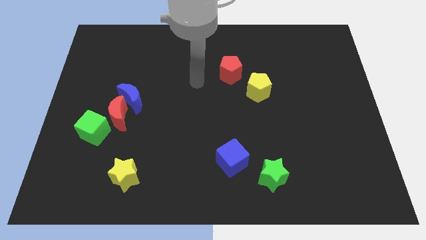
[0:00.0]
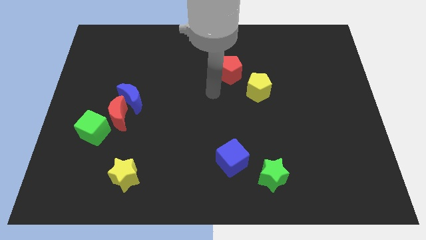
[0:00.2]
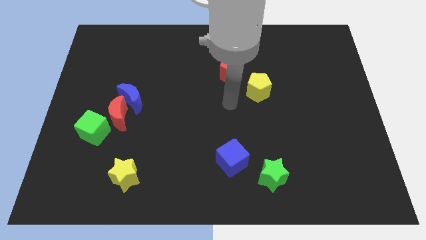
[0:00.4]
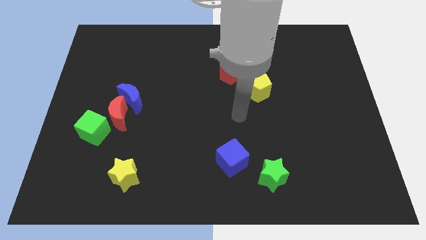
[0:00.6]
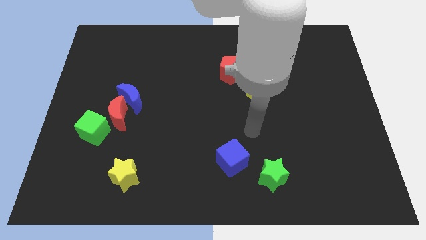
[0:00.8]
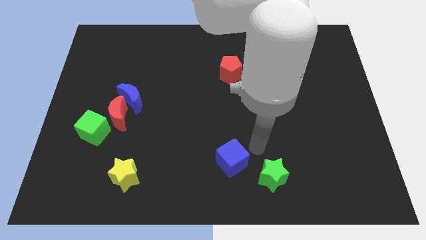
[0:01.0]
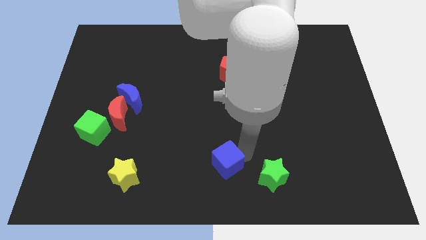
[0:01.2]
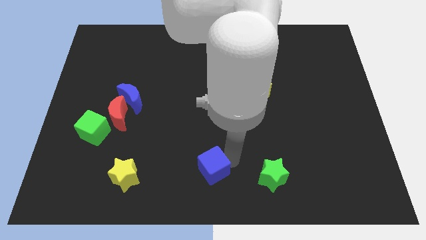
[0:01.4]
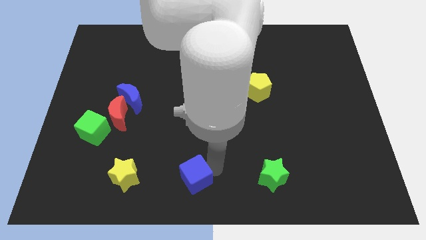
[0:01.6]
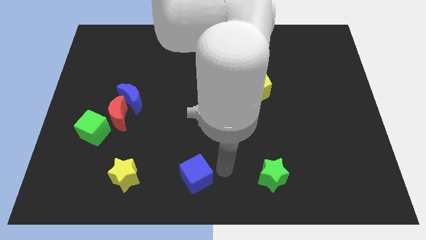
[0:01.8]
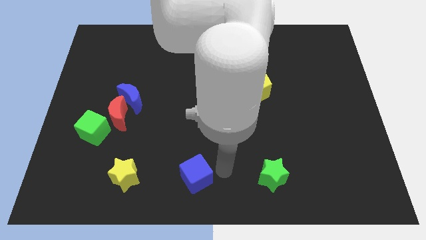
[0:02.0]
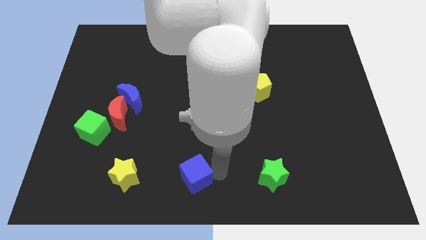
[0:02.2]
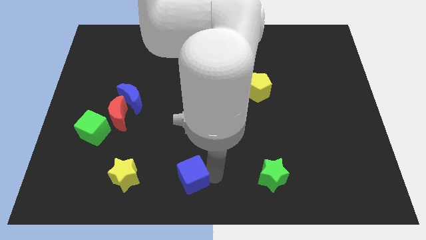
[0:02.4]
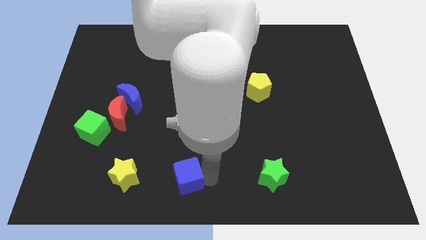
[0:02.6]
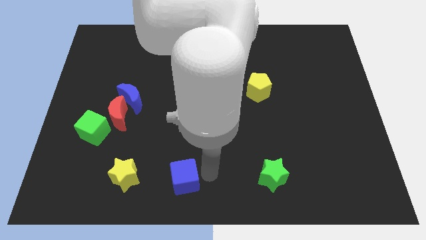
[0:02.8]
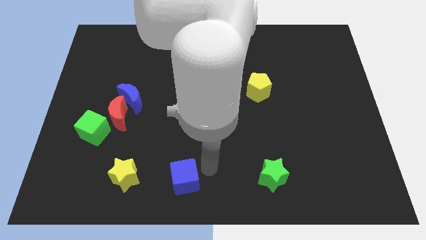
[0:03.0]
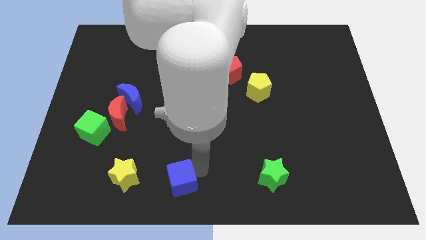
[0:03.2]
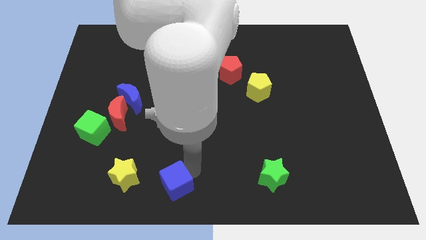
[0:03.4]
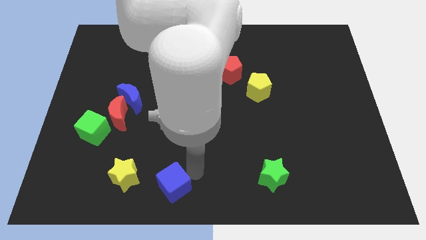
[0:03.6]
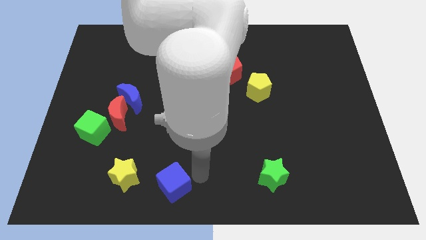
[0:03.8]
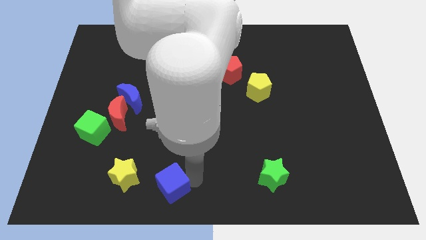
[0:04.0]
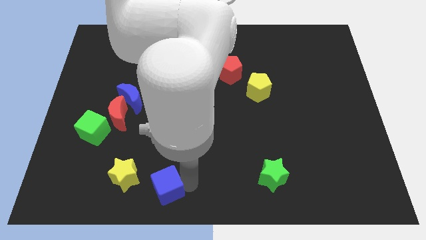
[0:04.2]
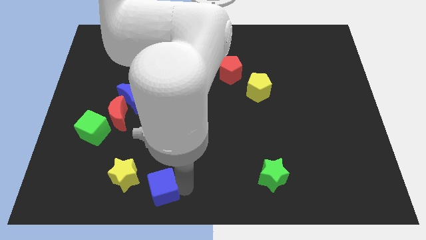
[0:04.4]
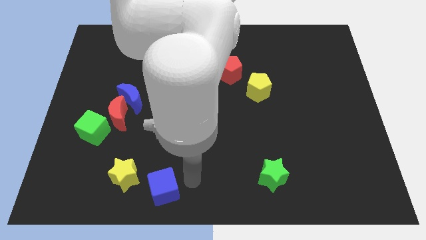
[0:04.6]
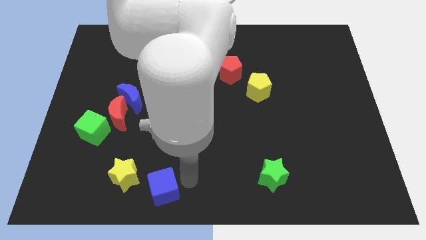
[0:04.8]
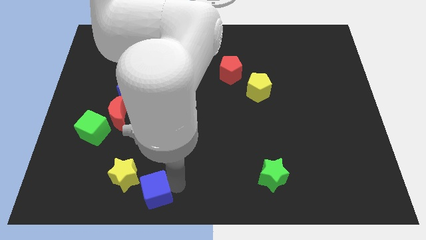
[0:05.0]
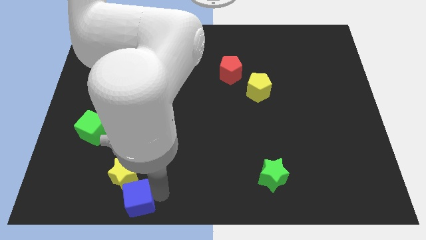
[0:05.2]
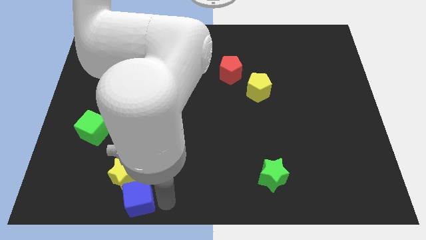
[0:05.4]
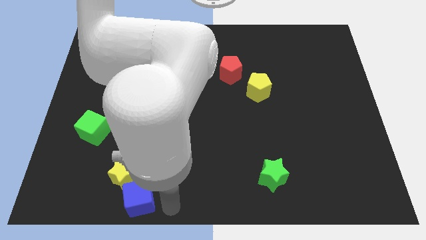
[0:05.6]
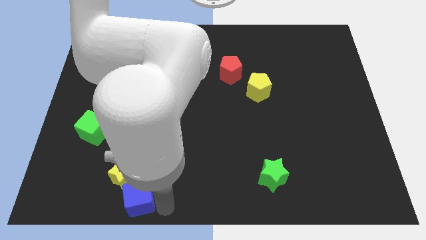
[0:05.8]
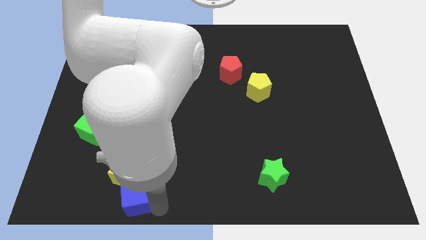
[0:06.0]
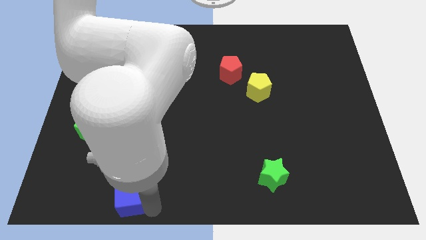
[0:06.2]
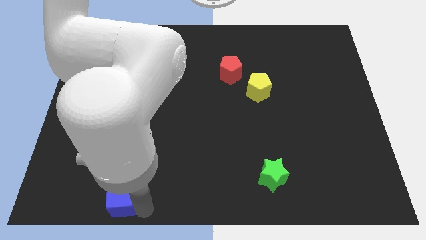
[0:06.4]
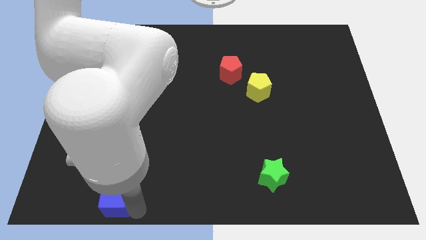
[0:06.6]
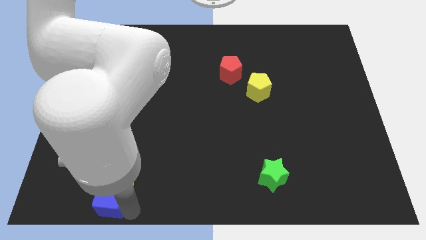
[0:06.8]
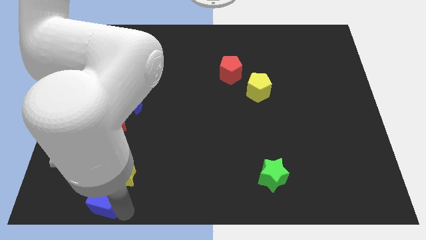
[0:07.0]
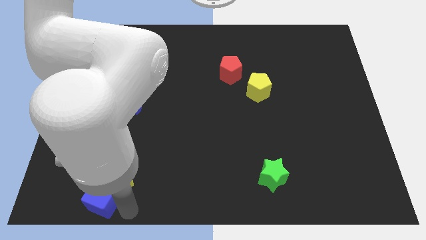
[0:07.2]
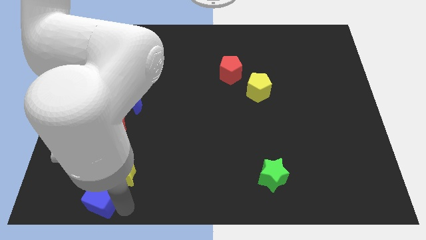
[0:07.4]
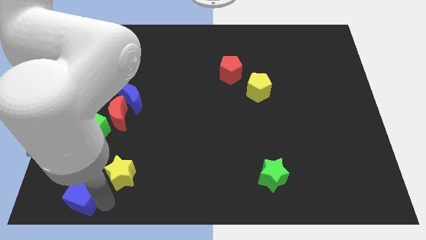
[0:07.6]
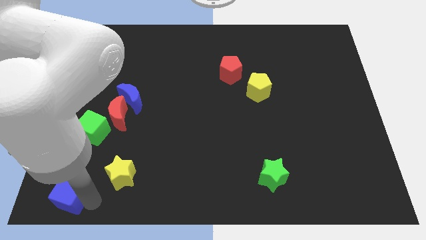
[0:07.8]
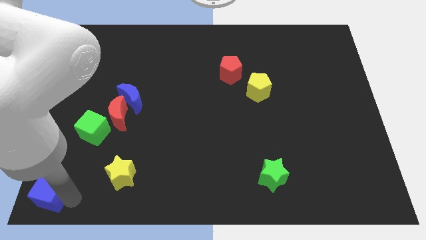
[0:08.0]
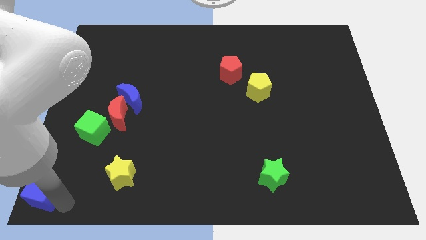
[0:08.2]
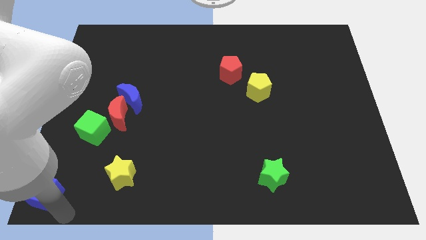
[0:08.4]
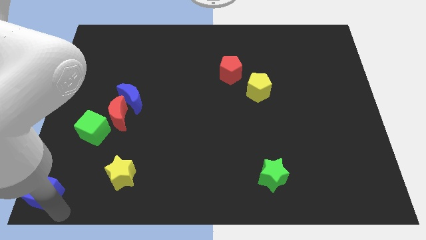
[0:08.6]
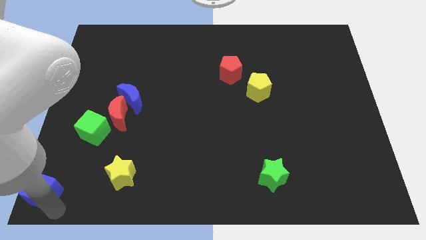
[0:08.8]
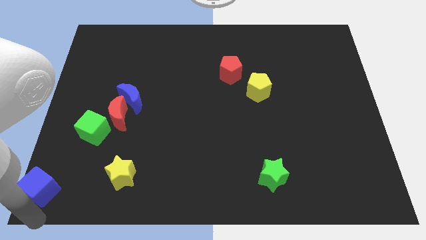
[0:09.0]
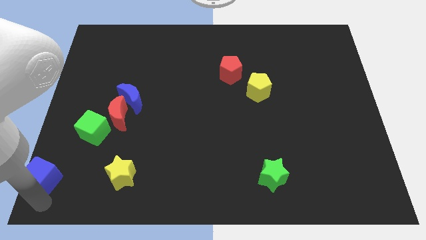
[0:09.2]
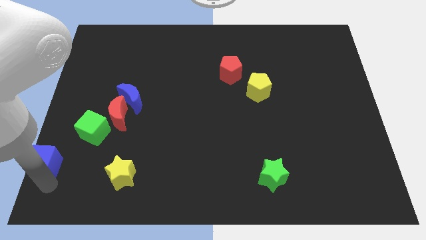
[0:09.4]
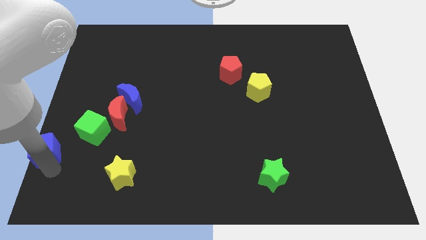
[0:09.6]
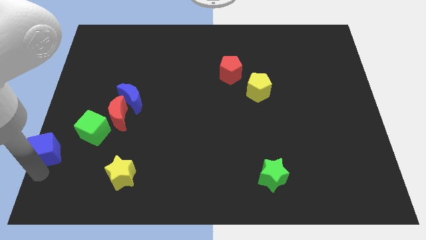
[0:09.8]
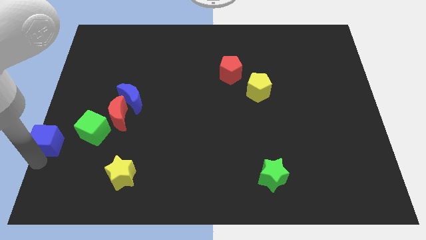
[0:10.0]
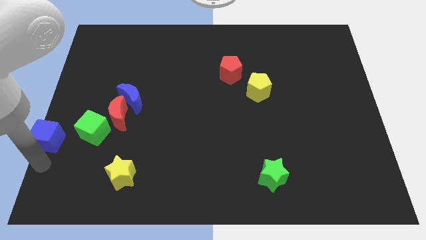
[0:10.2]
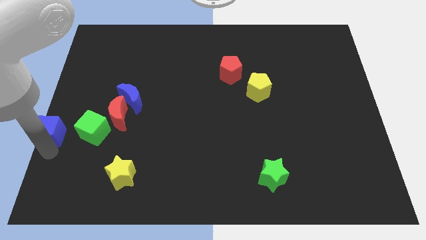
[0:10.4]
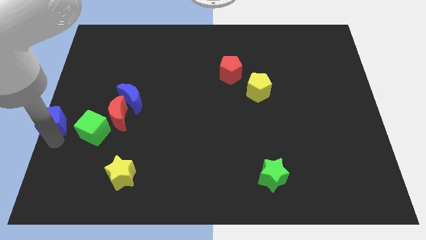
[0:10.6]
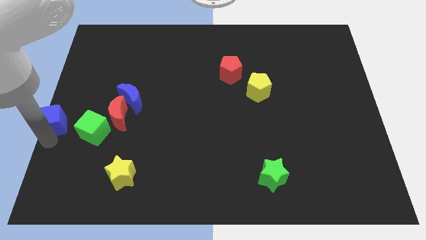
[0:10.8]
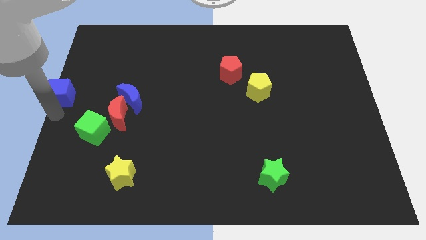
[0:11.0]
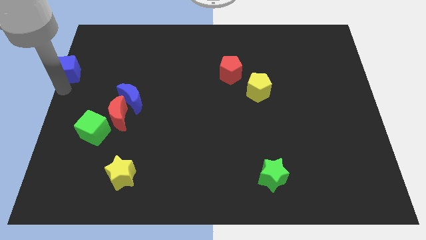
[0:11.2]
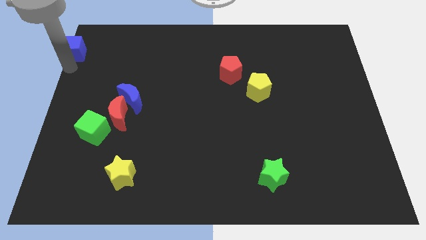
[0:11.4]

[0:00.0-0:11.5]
slide the blue cube to the top left corner

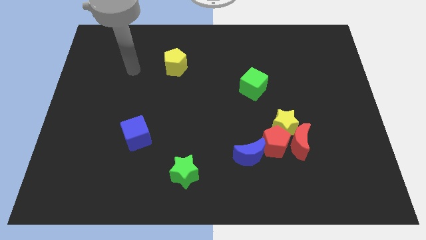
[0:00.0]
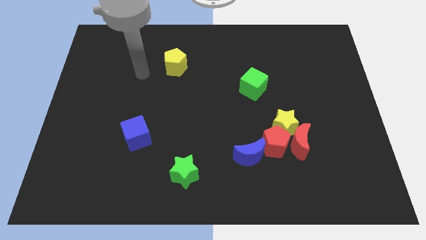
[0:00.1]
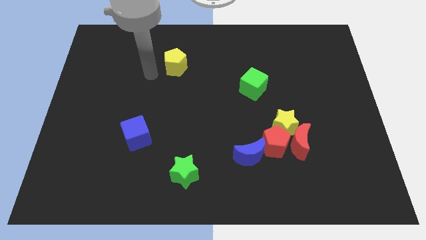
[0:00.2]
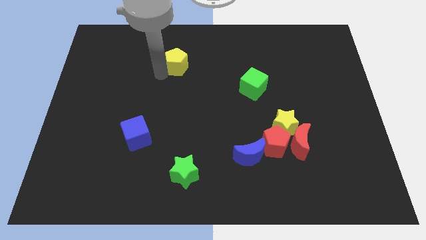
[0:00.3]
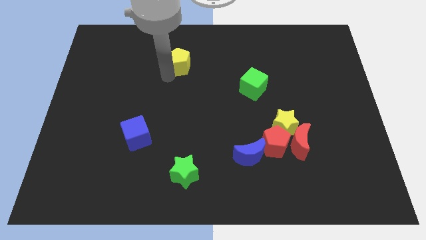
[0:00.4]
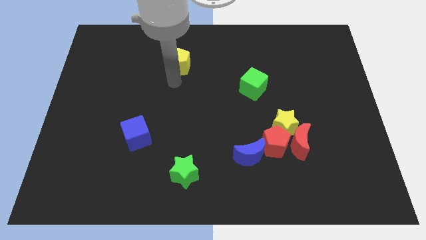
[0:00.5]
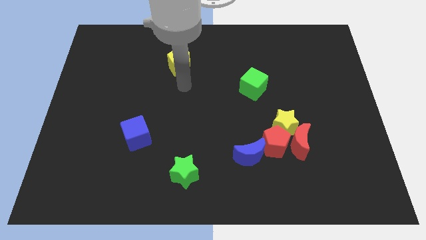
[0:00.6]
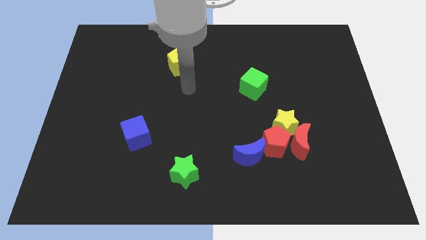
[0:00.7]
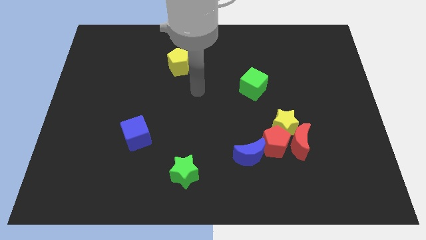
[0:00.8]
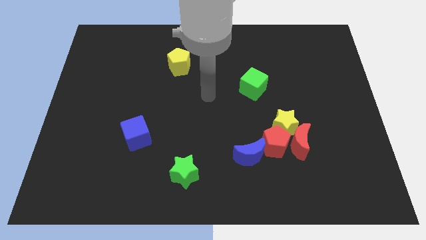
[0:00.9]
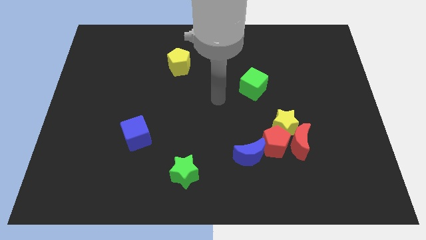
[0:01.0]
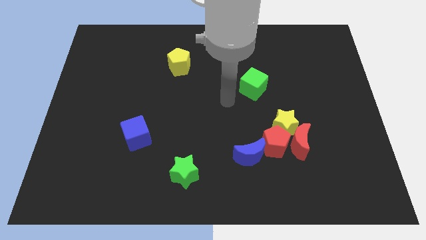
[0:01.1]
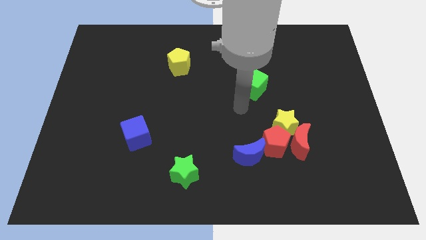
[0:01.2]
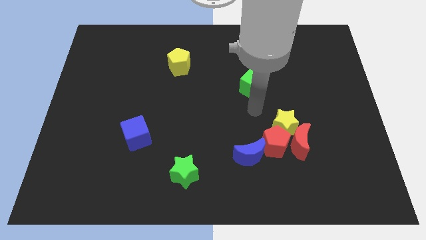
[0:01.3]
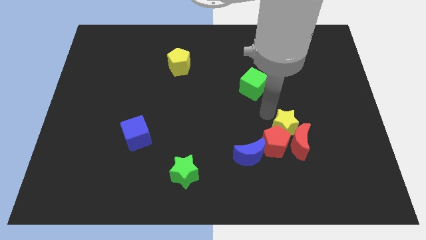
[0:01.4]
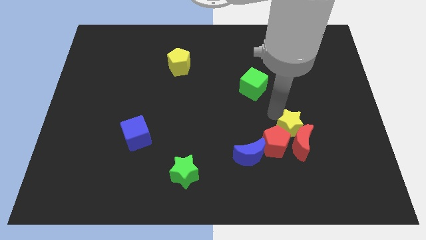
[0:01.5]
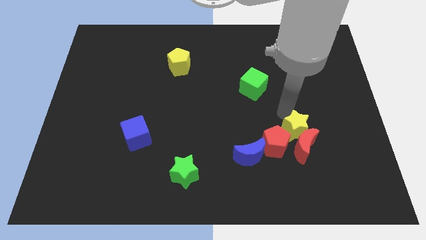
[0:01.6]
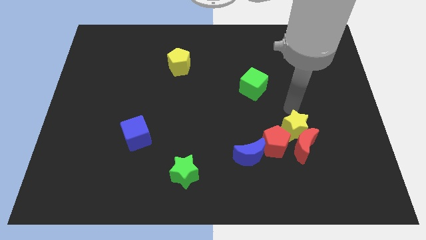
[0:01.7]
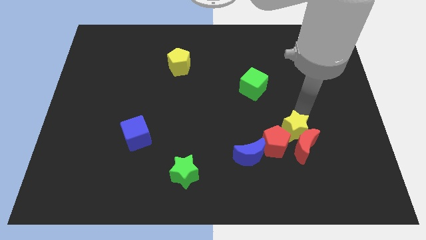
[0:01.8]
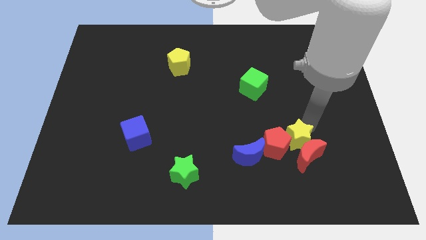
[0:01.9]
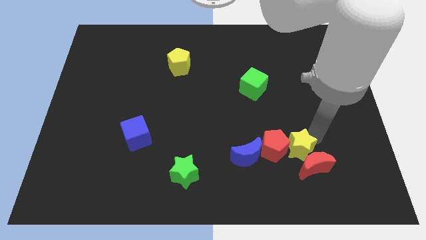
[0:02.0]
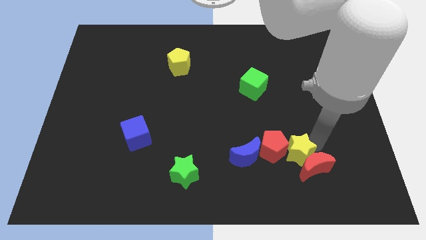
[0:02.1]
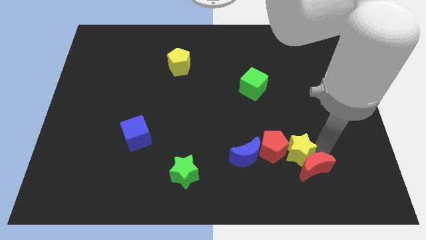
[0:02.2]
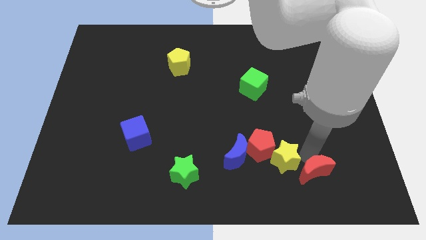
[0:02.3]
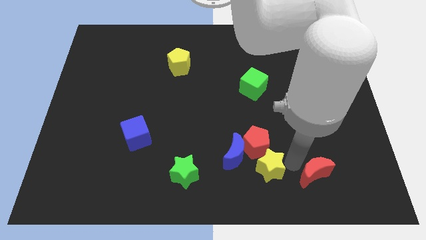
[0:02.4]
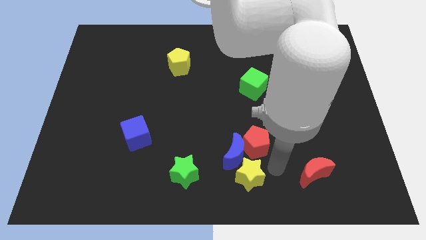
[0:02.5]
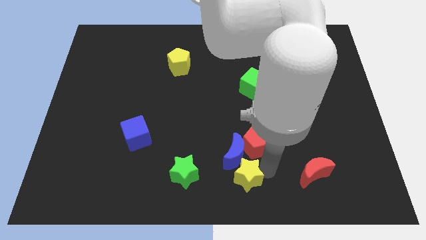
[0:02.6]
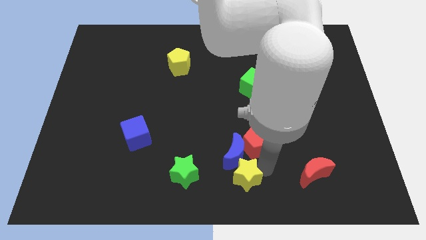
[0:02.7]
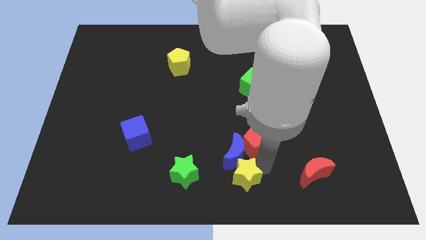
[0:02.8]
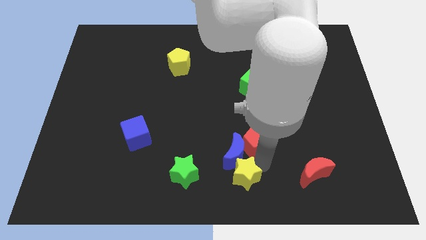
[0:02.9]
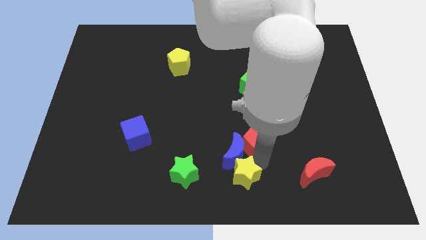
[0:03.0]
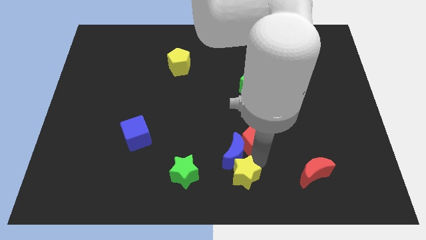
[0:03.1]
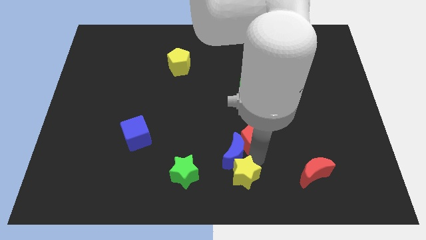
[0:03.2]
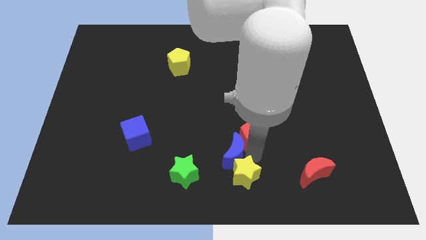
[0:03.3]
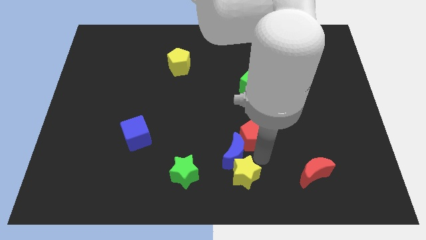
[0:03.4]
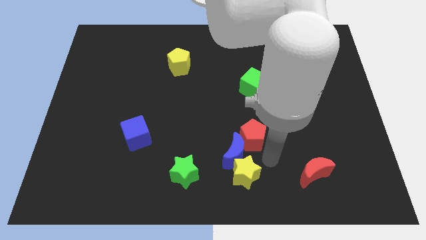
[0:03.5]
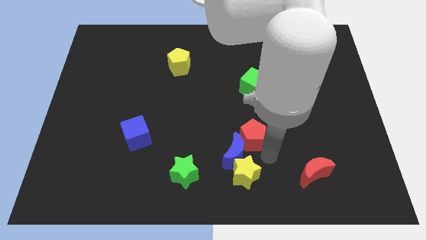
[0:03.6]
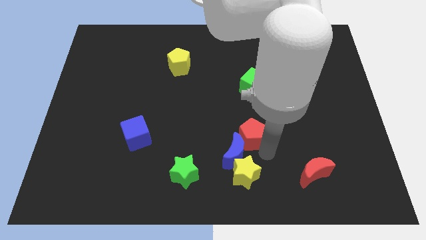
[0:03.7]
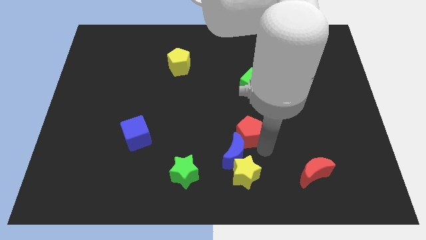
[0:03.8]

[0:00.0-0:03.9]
slide the red pentagon to the middle
